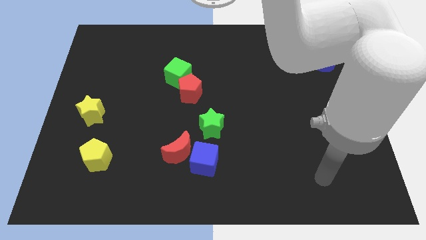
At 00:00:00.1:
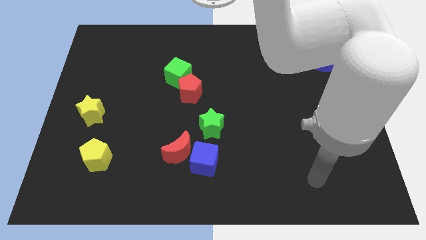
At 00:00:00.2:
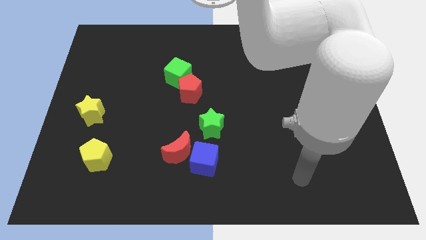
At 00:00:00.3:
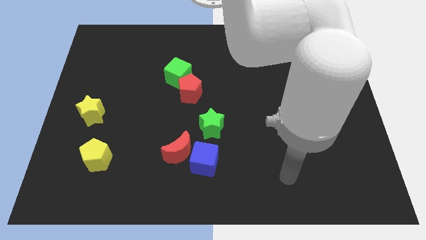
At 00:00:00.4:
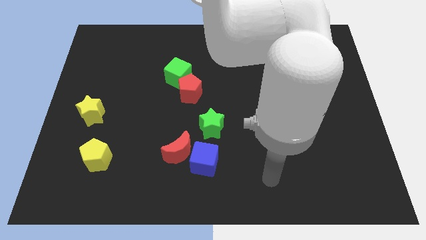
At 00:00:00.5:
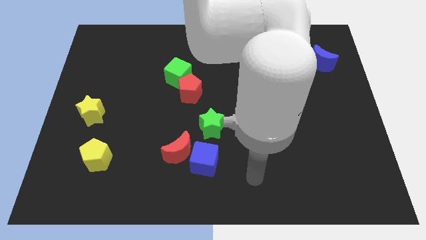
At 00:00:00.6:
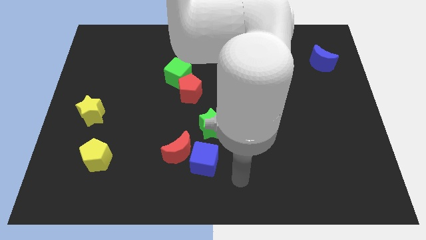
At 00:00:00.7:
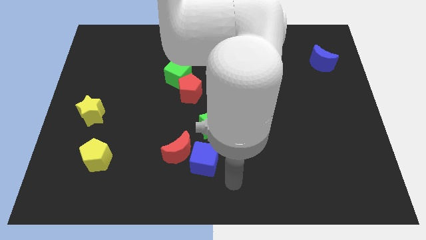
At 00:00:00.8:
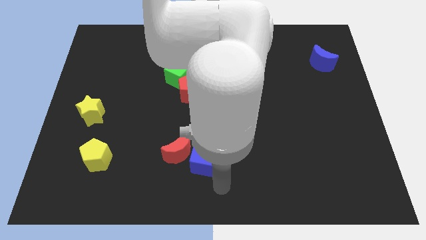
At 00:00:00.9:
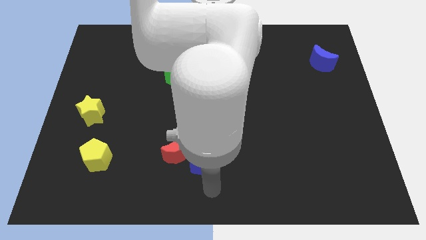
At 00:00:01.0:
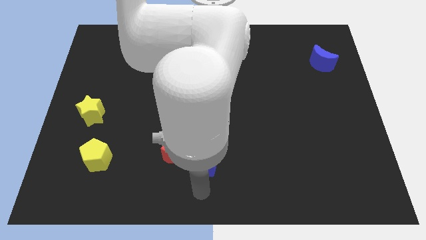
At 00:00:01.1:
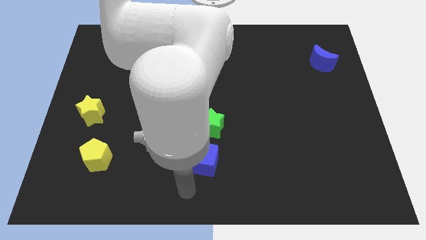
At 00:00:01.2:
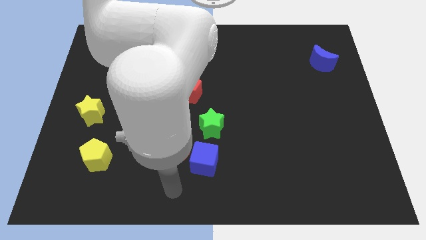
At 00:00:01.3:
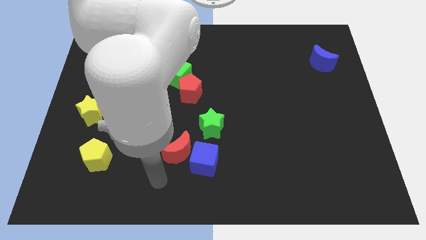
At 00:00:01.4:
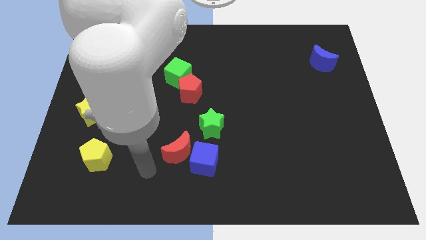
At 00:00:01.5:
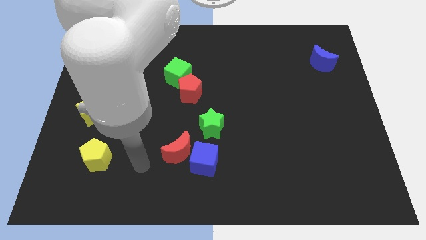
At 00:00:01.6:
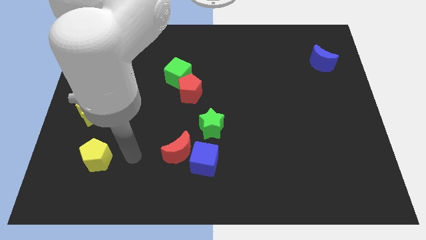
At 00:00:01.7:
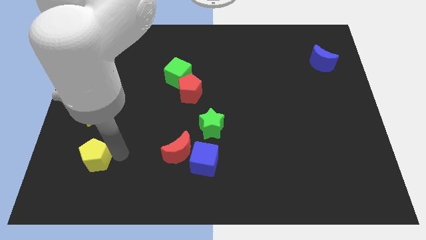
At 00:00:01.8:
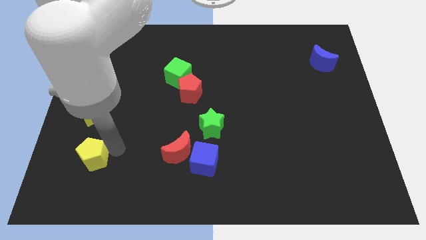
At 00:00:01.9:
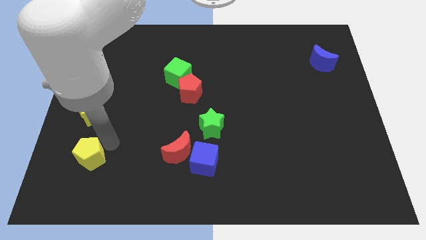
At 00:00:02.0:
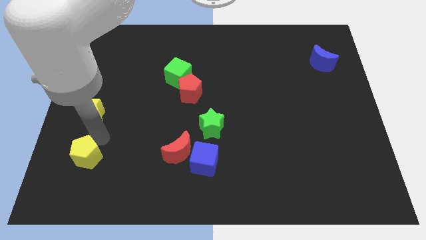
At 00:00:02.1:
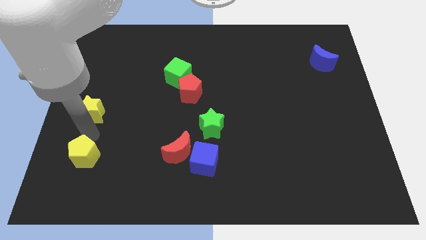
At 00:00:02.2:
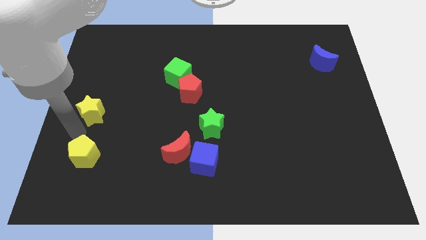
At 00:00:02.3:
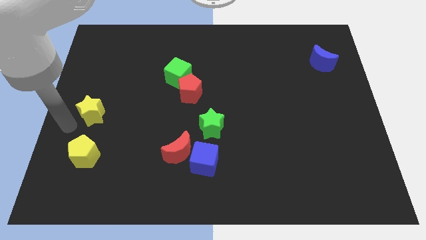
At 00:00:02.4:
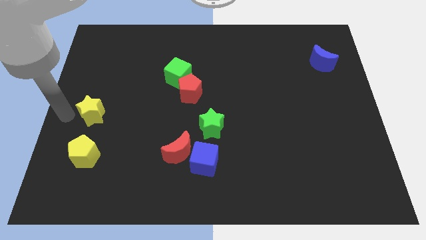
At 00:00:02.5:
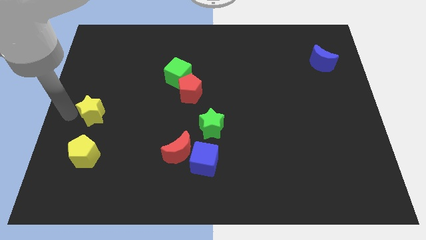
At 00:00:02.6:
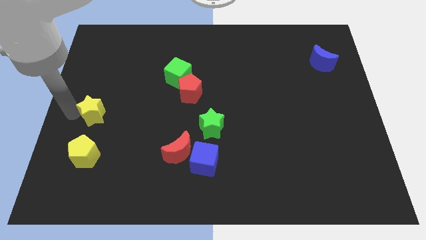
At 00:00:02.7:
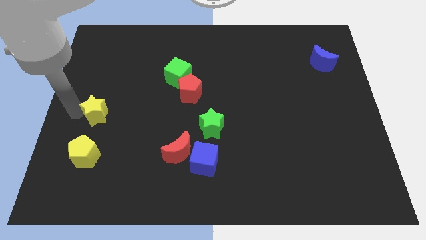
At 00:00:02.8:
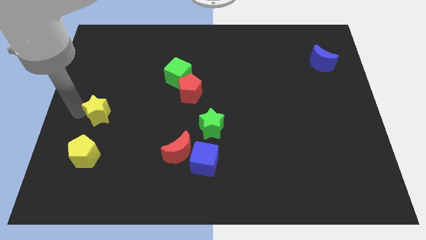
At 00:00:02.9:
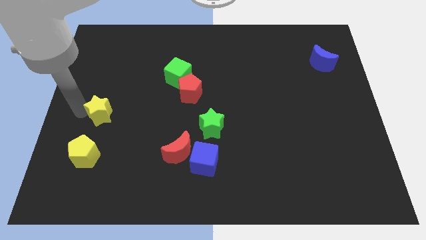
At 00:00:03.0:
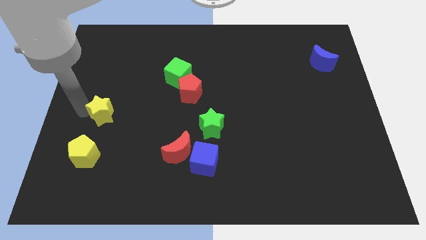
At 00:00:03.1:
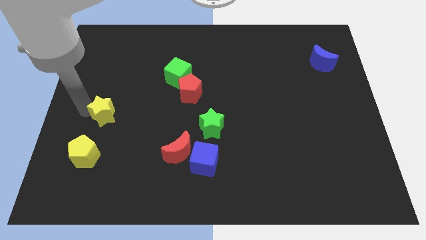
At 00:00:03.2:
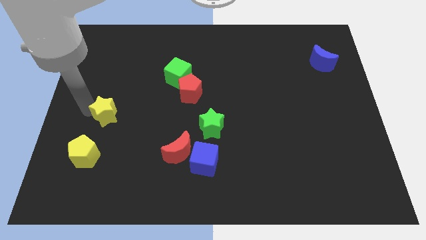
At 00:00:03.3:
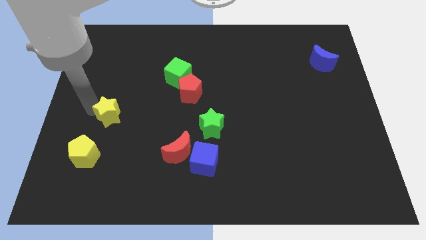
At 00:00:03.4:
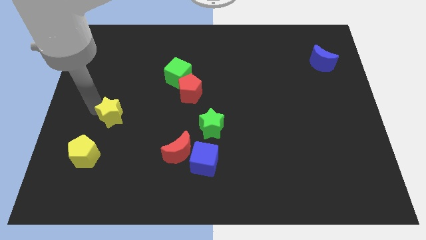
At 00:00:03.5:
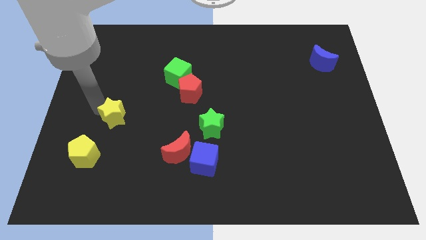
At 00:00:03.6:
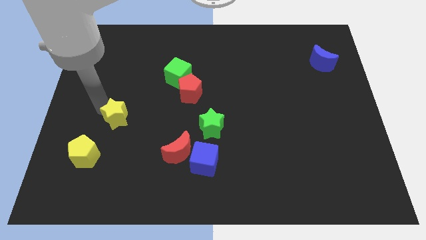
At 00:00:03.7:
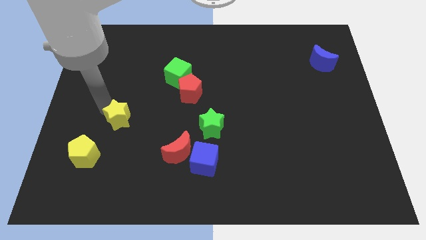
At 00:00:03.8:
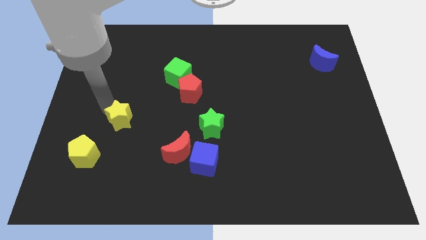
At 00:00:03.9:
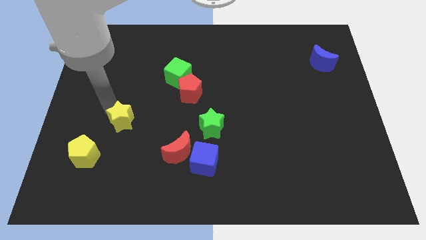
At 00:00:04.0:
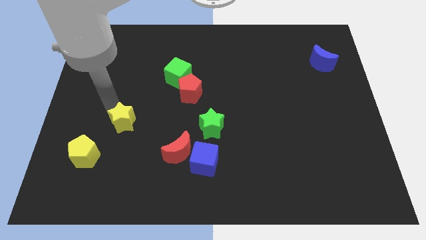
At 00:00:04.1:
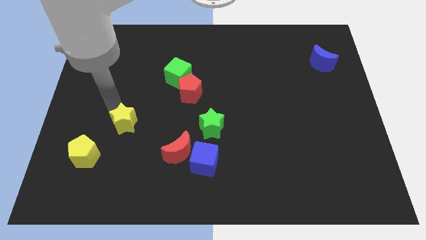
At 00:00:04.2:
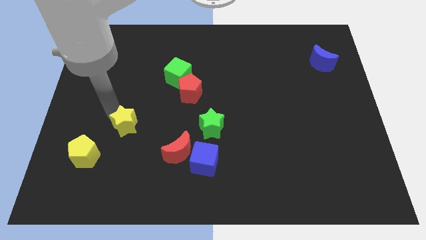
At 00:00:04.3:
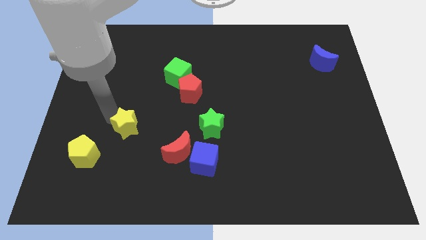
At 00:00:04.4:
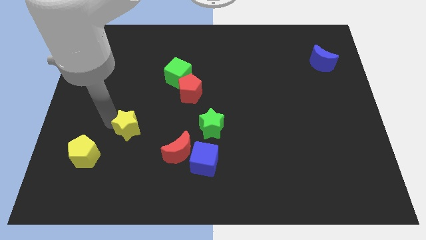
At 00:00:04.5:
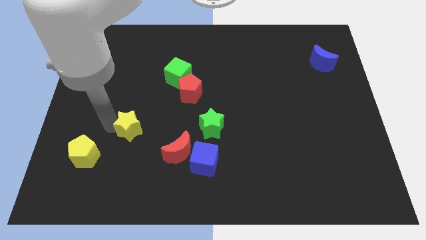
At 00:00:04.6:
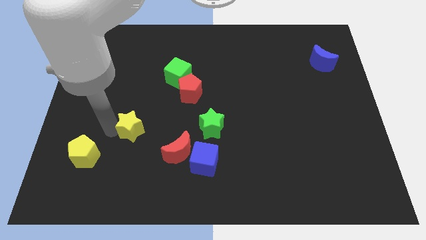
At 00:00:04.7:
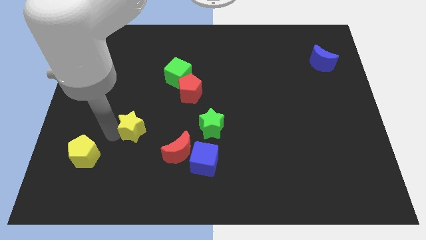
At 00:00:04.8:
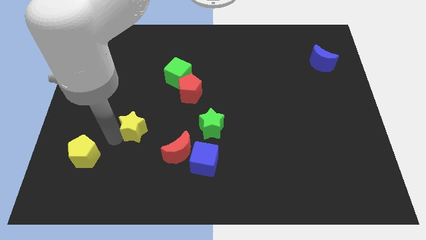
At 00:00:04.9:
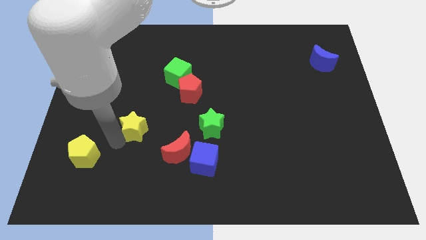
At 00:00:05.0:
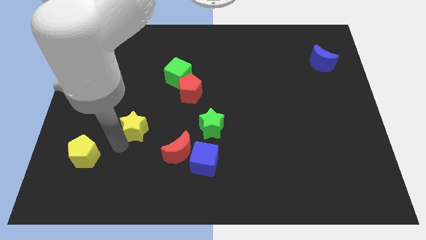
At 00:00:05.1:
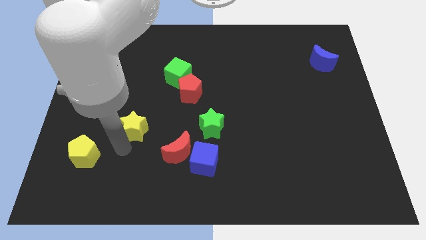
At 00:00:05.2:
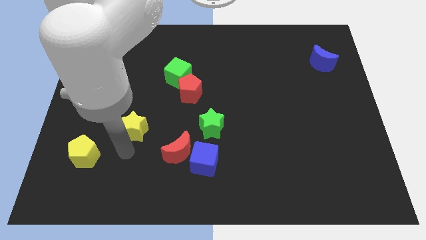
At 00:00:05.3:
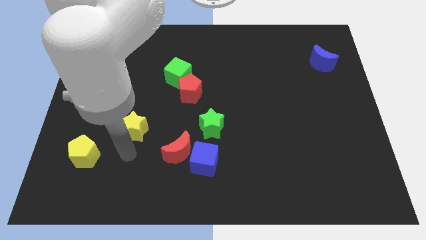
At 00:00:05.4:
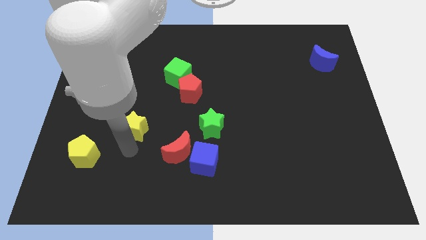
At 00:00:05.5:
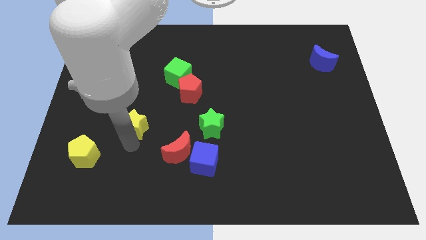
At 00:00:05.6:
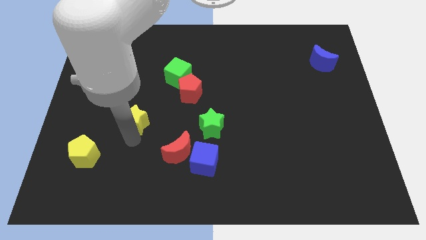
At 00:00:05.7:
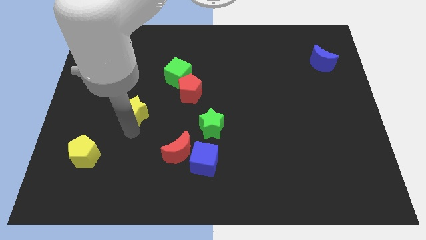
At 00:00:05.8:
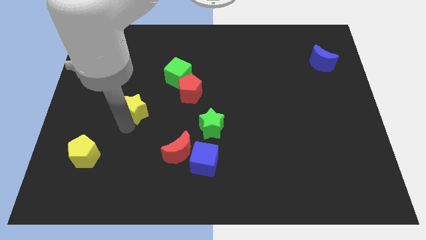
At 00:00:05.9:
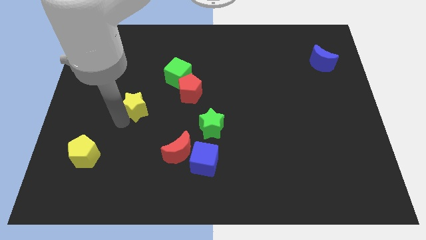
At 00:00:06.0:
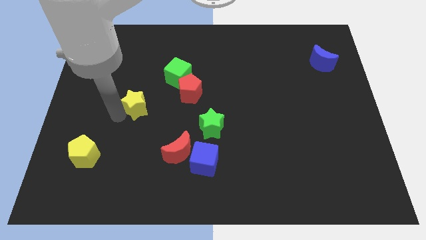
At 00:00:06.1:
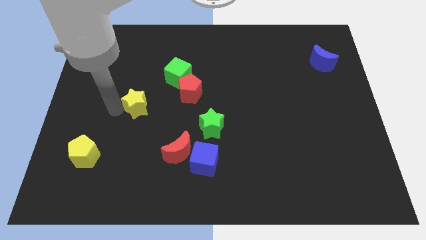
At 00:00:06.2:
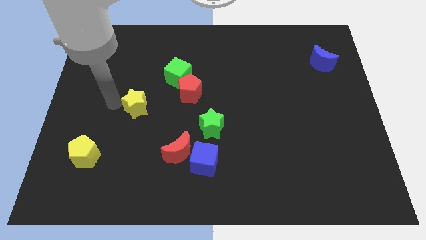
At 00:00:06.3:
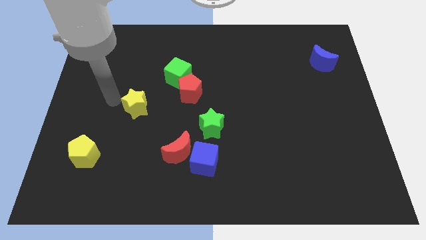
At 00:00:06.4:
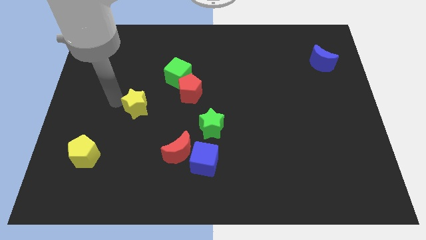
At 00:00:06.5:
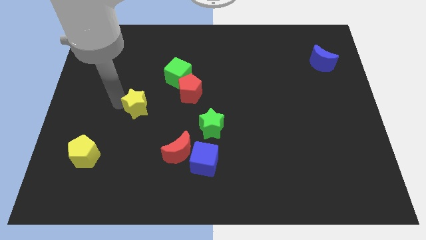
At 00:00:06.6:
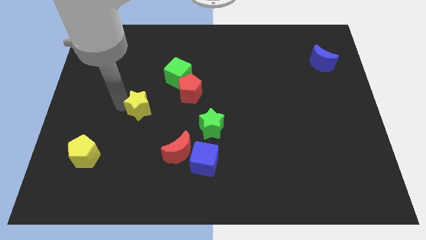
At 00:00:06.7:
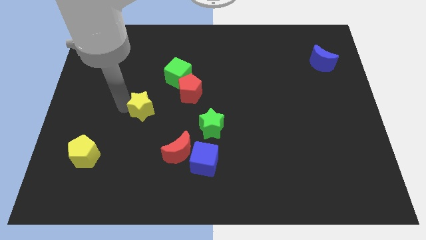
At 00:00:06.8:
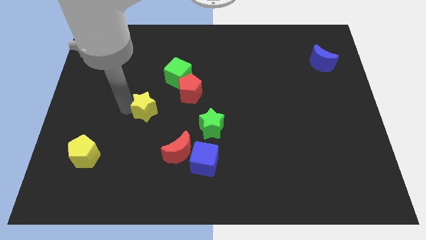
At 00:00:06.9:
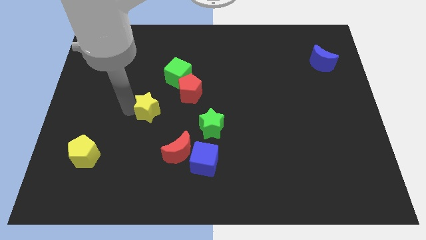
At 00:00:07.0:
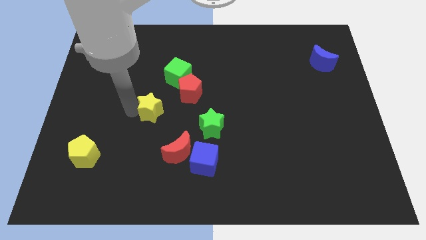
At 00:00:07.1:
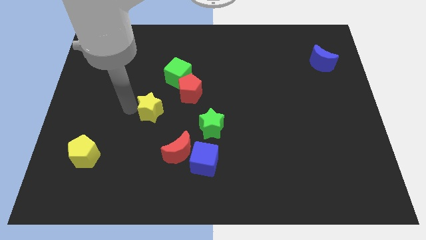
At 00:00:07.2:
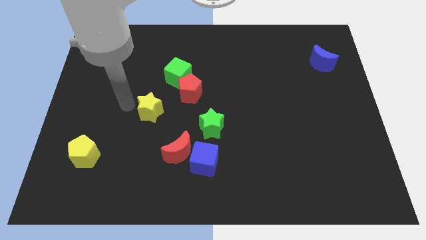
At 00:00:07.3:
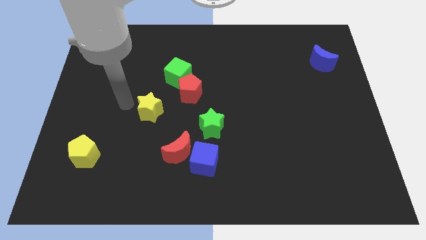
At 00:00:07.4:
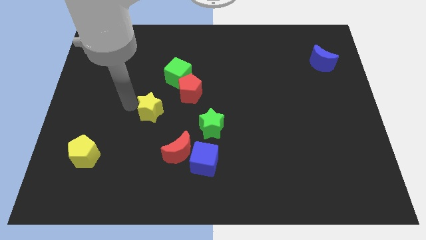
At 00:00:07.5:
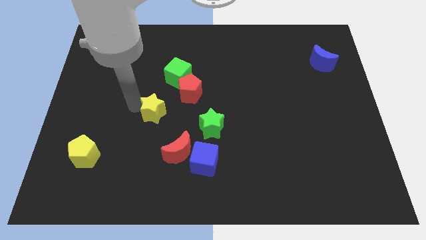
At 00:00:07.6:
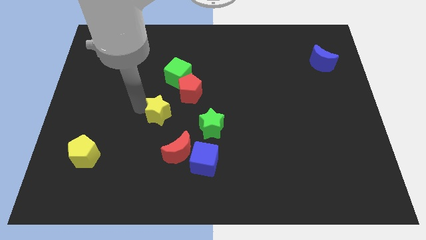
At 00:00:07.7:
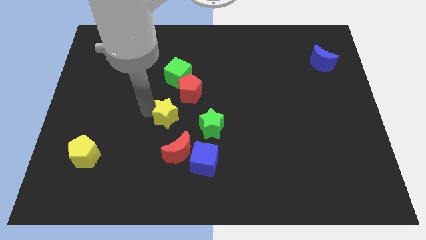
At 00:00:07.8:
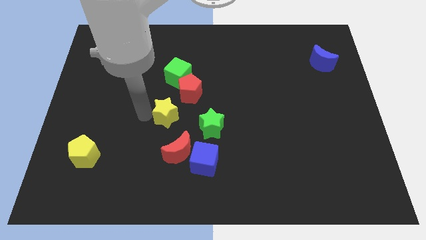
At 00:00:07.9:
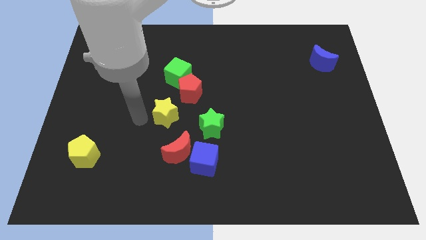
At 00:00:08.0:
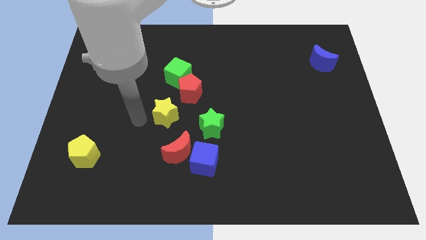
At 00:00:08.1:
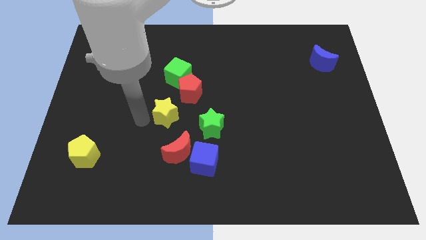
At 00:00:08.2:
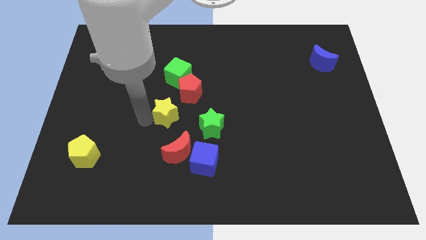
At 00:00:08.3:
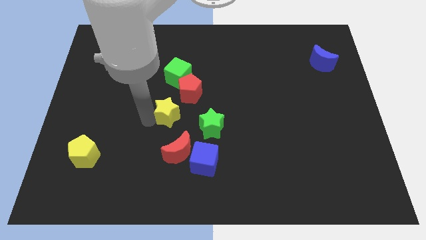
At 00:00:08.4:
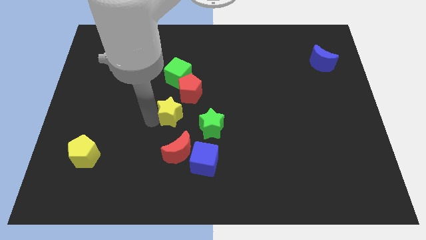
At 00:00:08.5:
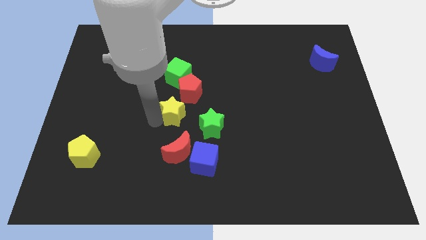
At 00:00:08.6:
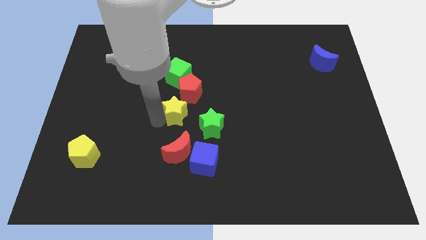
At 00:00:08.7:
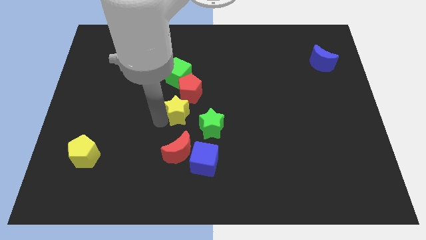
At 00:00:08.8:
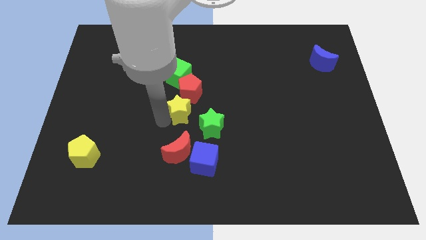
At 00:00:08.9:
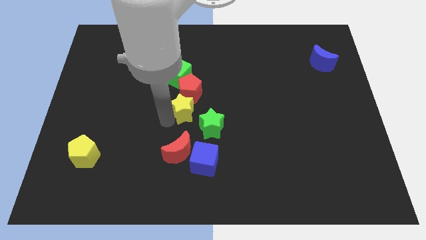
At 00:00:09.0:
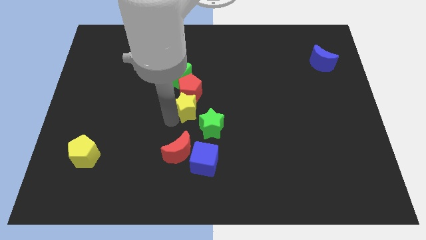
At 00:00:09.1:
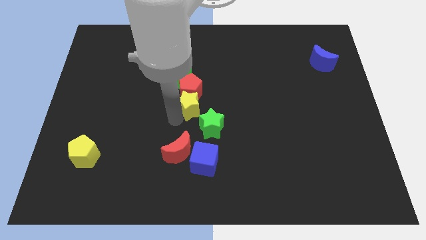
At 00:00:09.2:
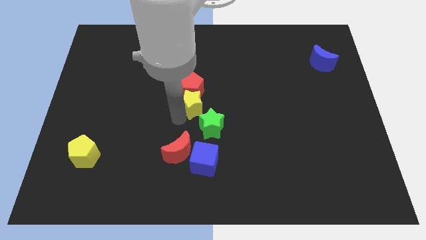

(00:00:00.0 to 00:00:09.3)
slide the yellow star to the top of the green star
